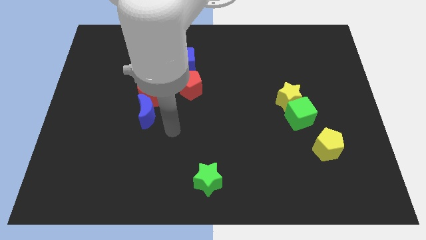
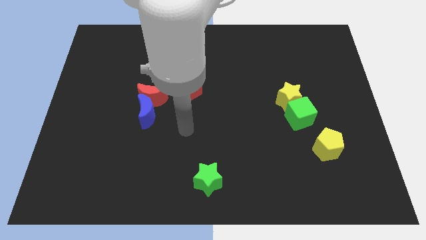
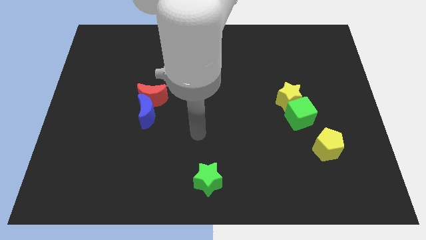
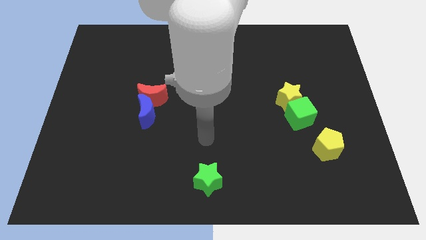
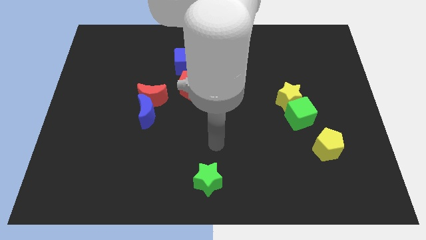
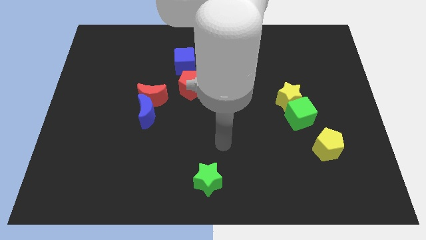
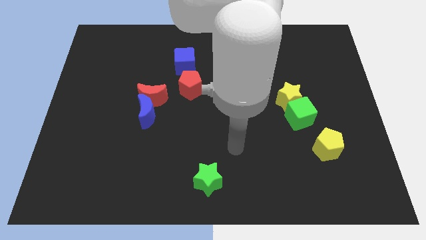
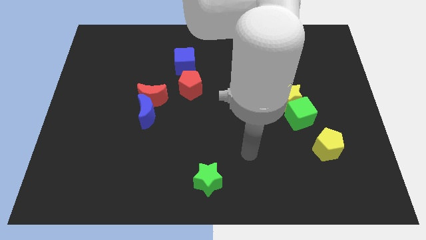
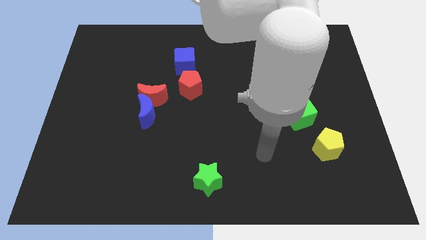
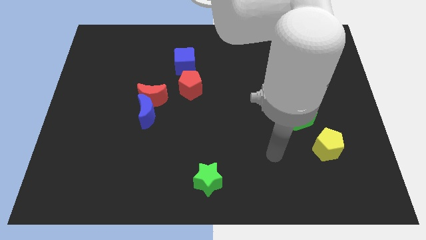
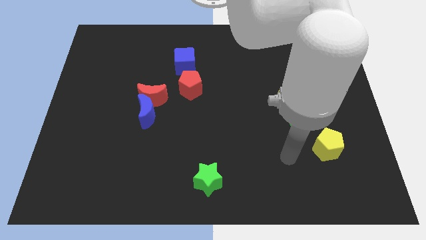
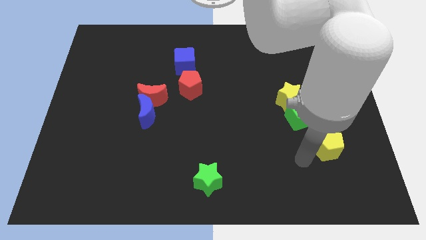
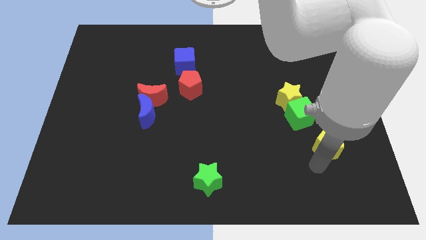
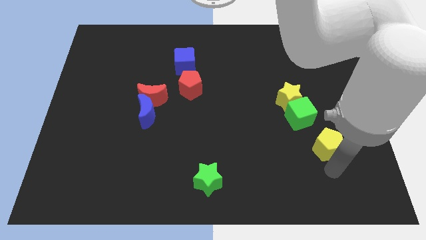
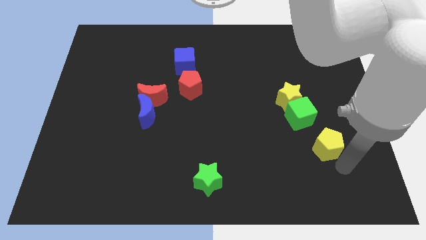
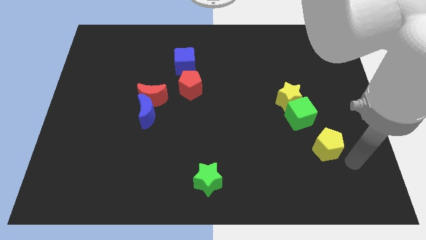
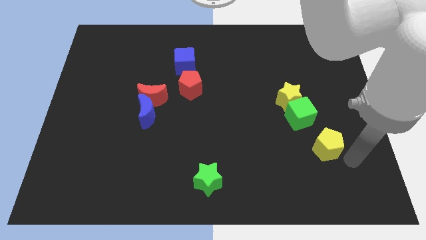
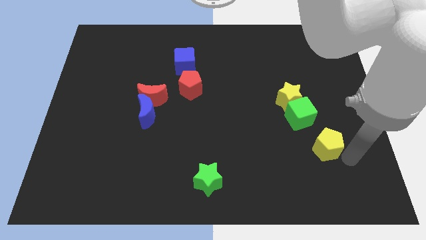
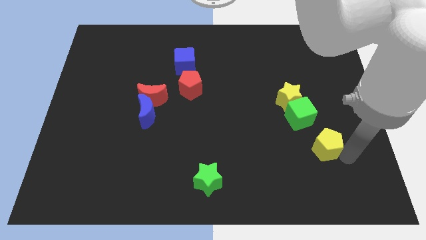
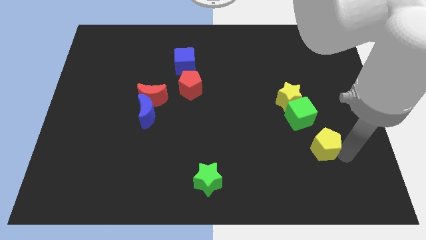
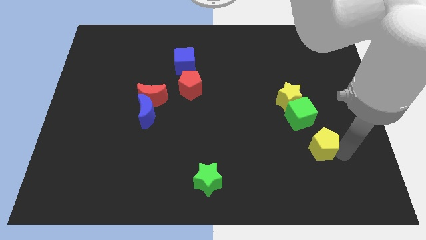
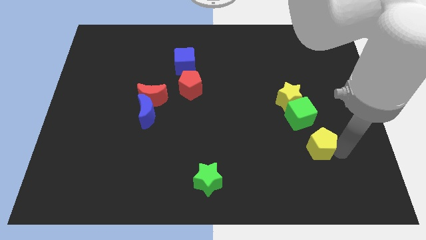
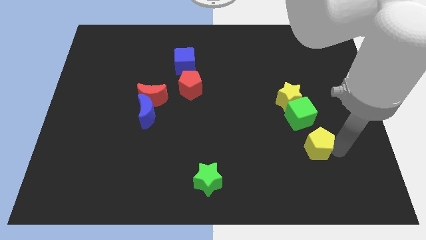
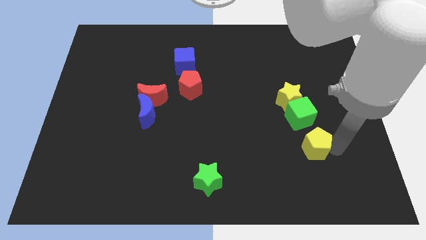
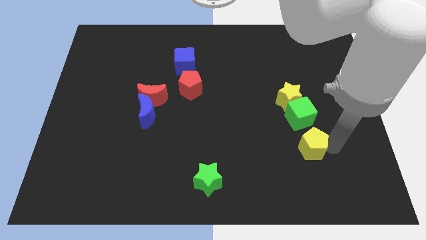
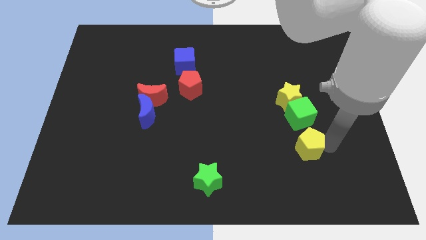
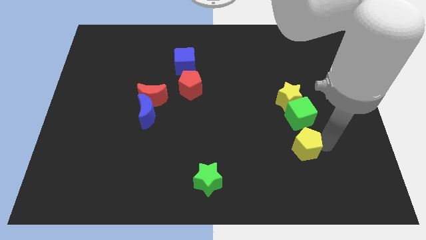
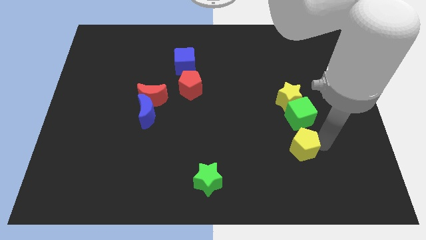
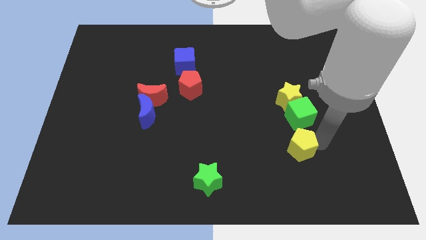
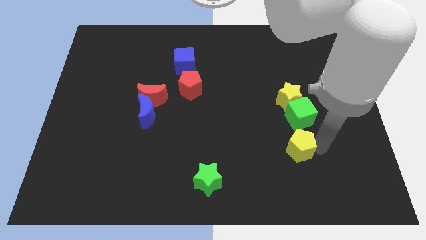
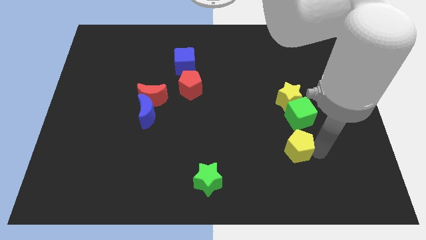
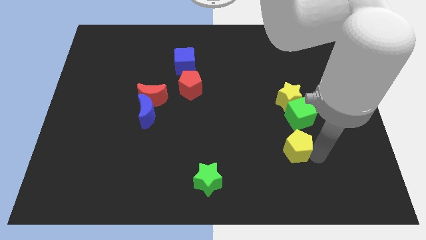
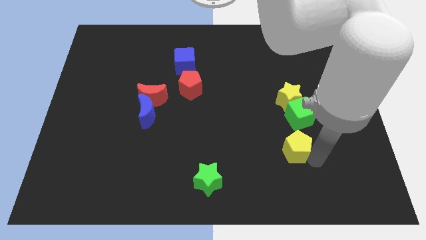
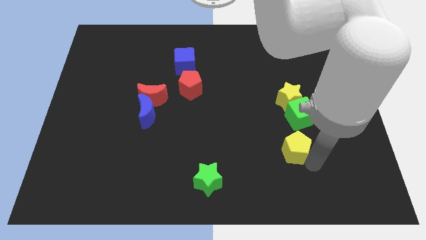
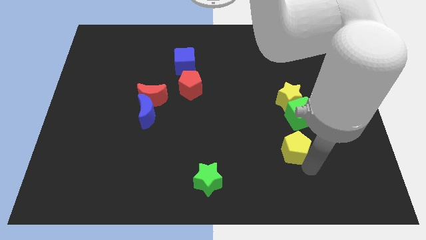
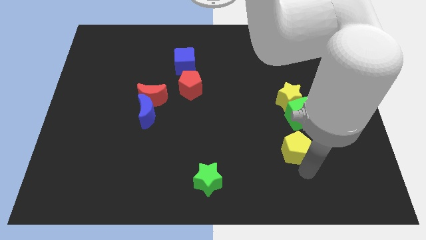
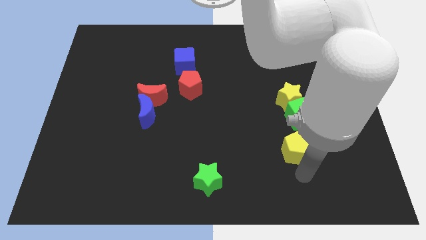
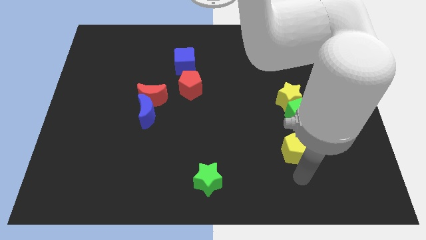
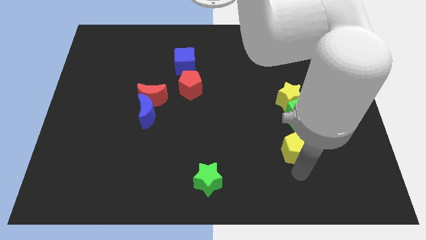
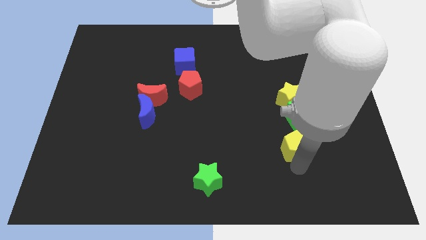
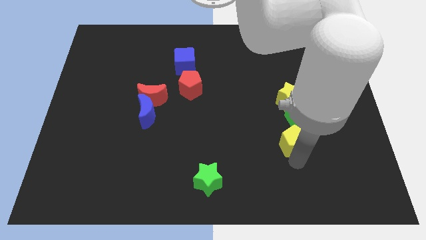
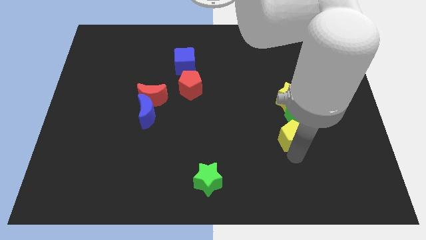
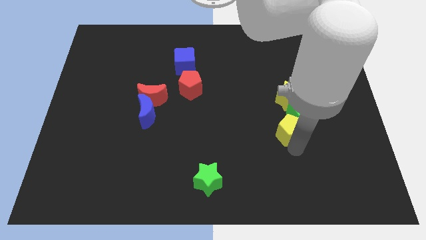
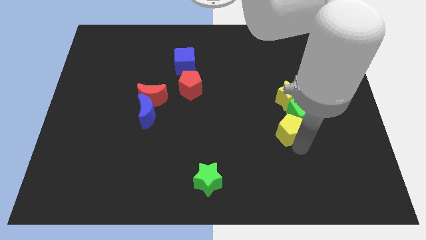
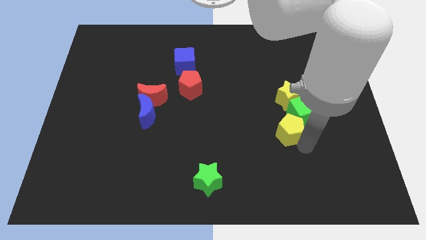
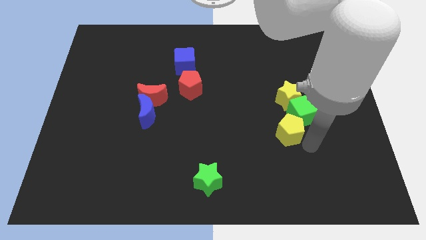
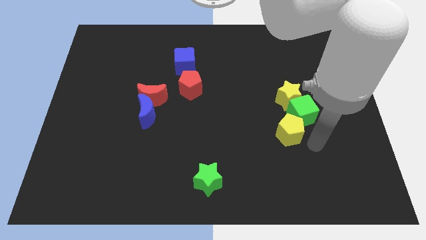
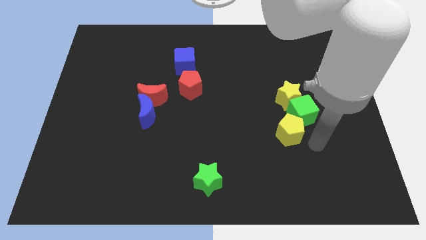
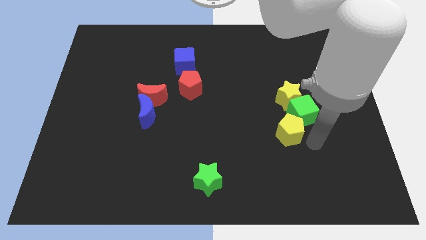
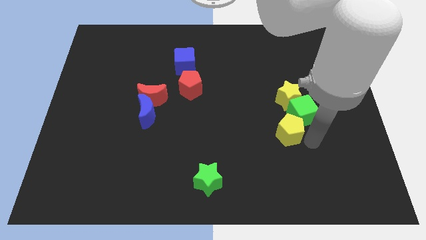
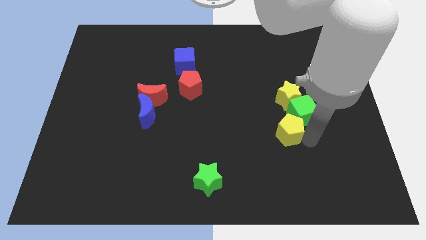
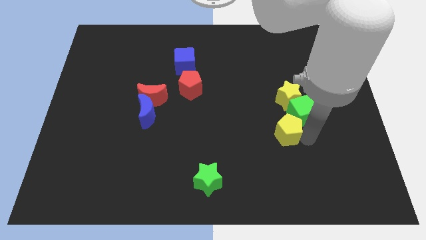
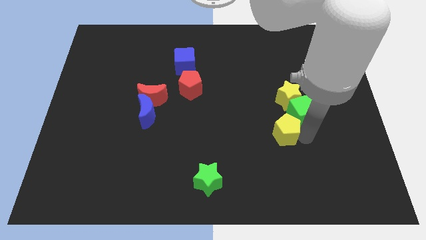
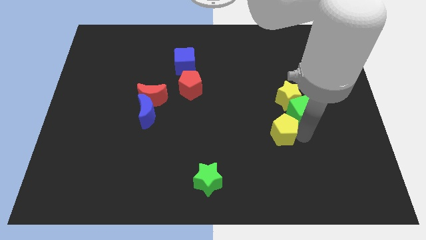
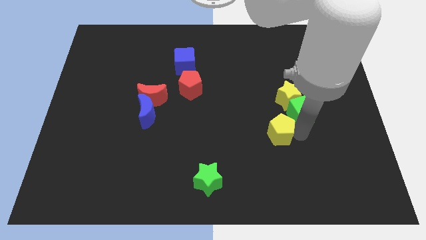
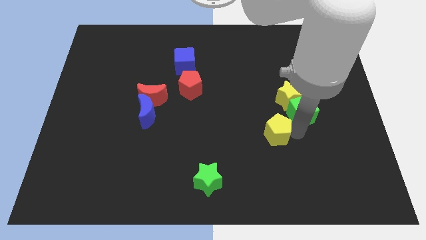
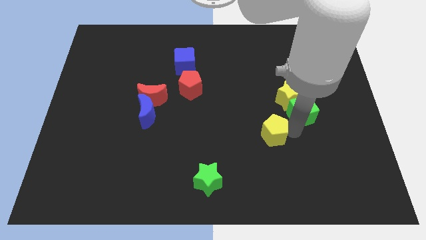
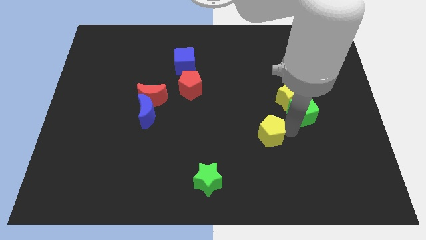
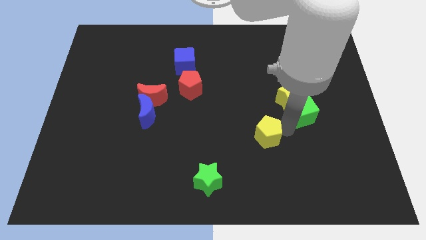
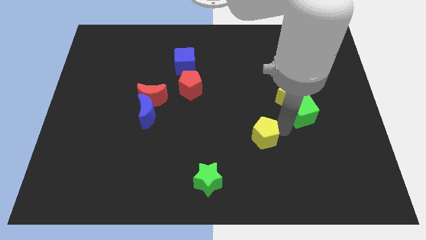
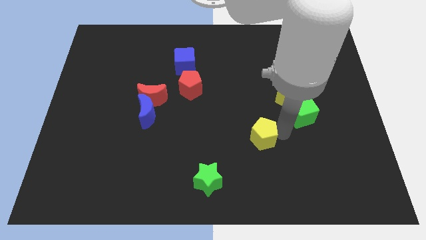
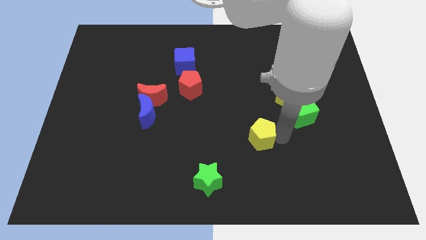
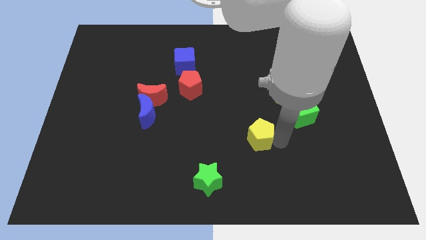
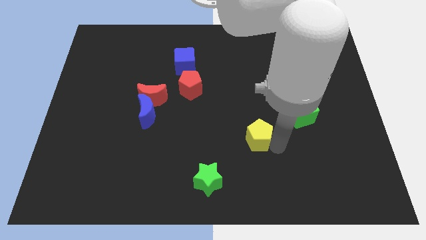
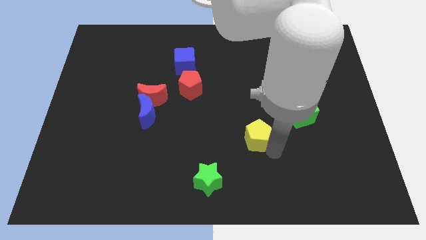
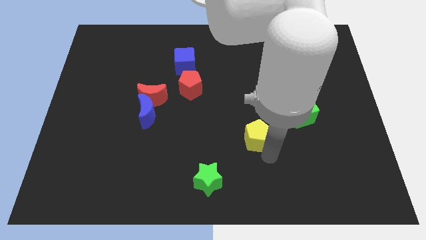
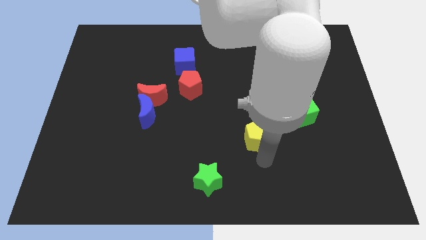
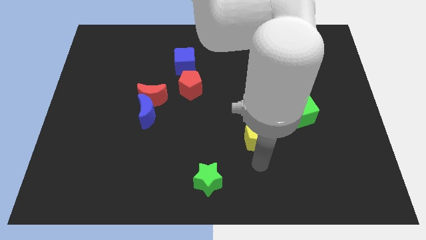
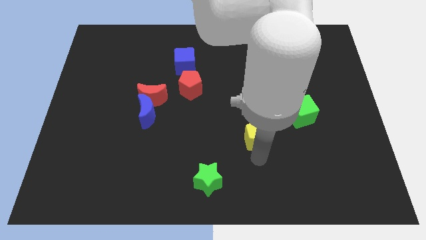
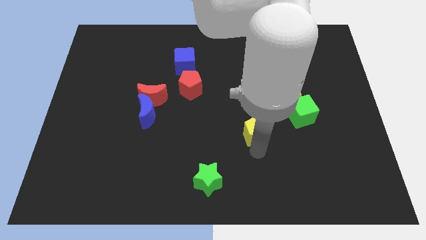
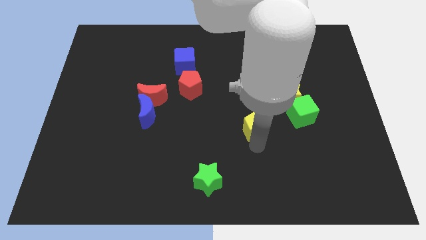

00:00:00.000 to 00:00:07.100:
move the yellow pentagon to the center

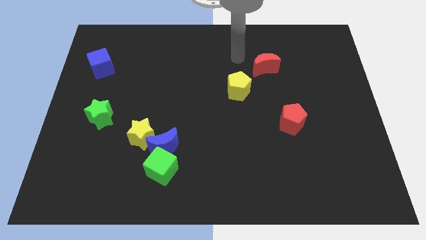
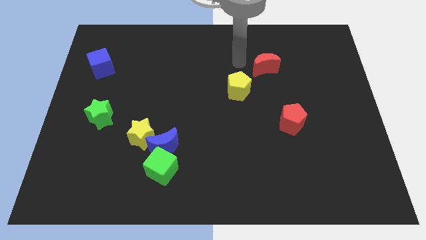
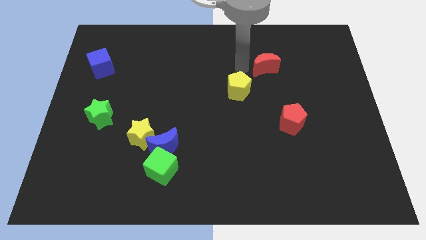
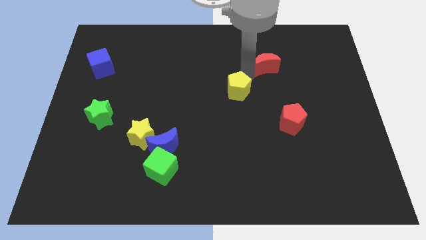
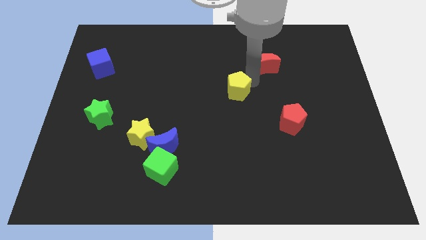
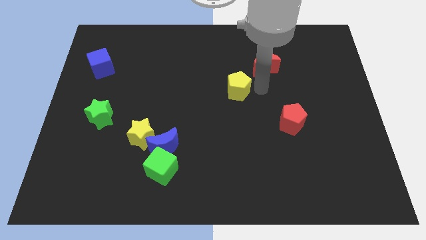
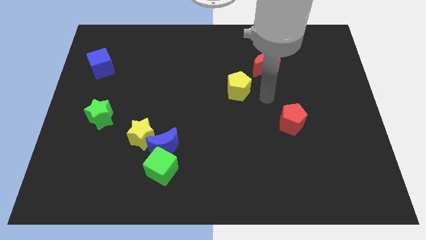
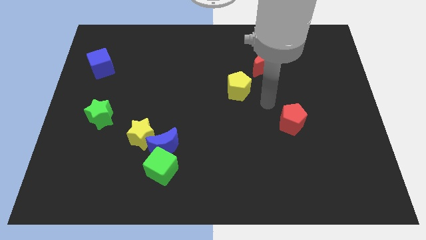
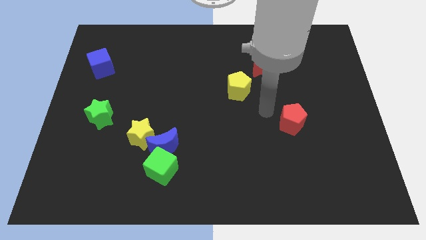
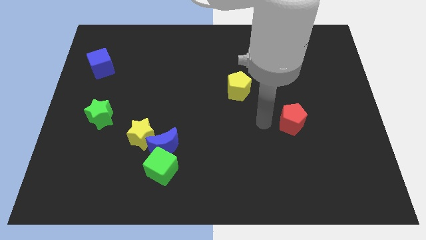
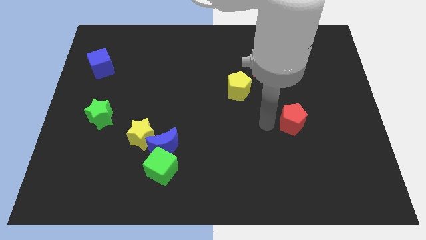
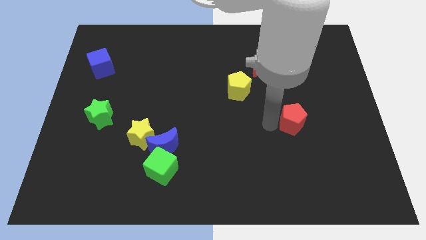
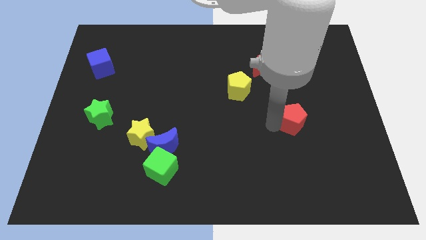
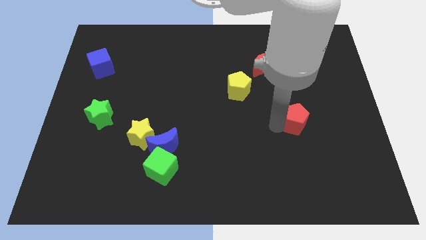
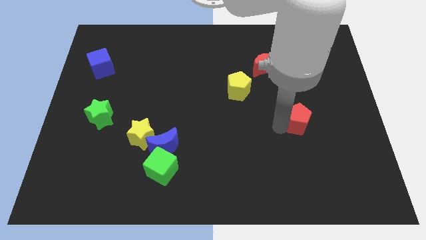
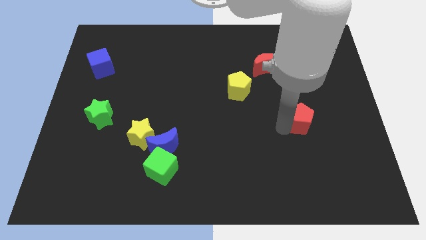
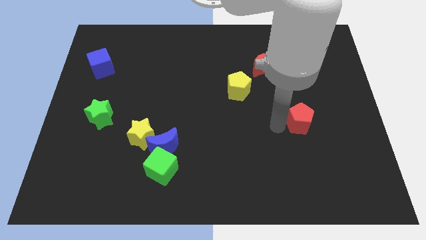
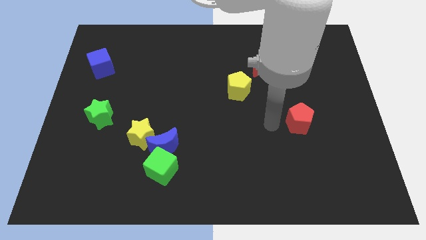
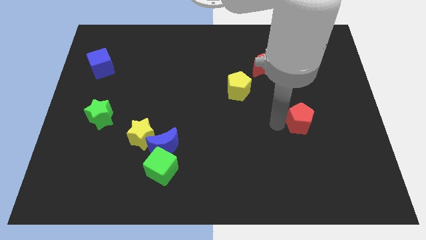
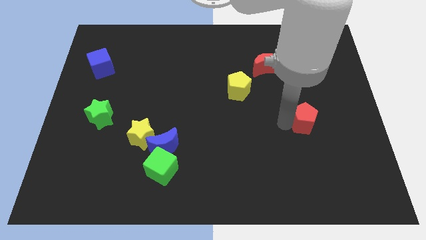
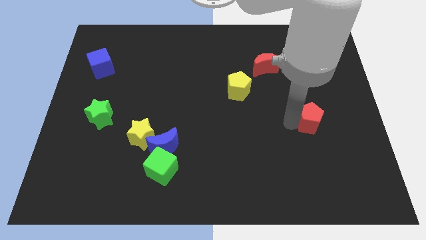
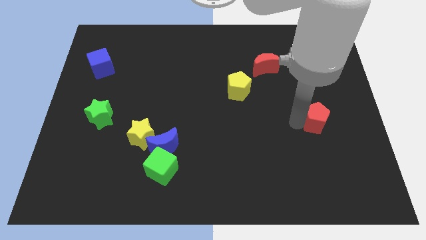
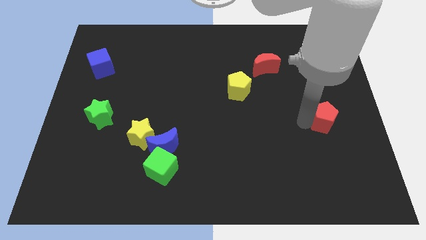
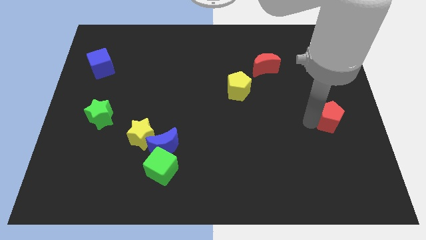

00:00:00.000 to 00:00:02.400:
push the red pentagon to the right side
